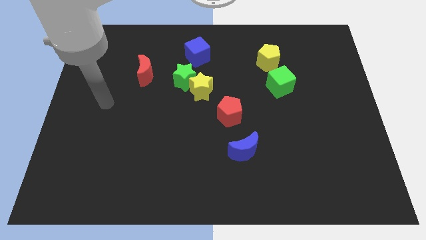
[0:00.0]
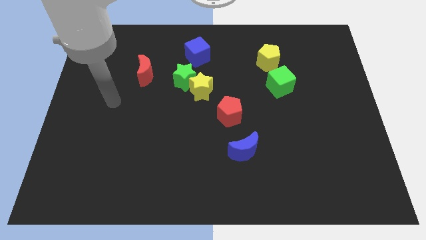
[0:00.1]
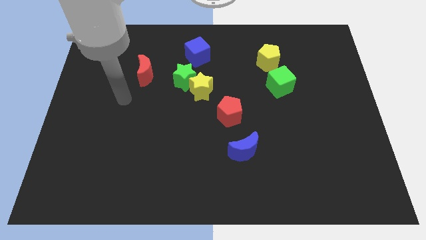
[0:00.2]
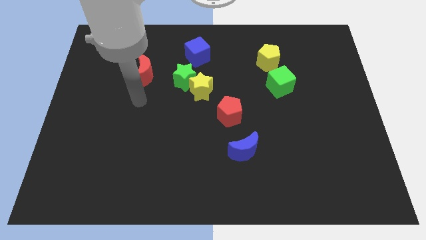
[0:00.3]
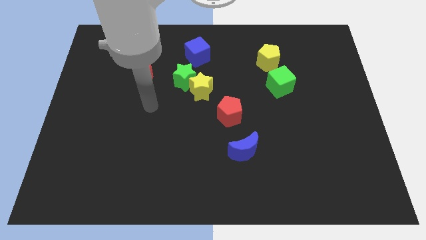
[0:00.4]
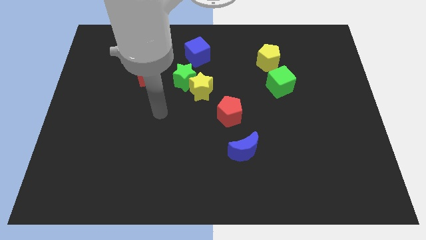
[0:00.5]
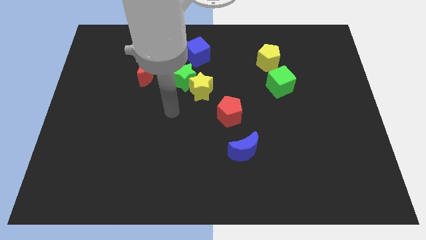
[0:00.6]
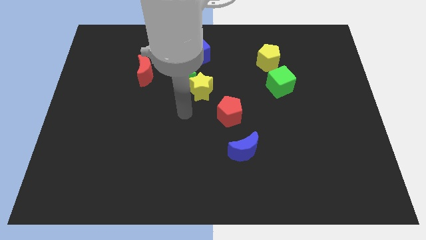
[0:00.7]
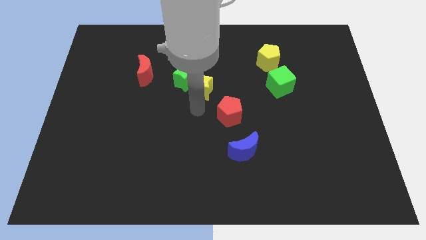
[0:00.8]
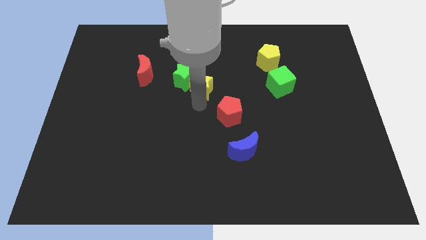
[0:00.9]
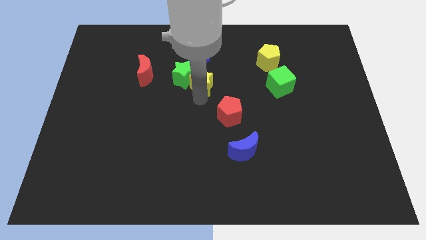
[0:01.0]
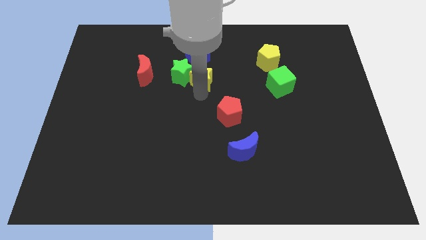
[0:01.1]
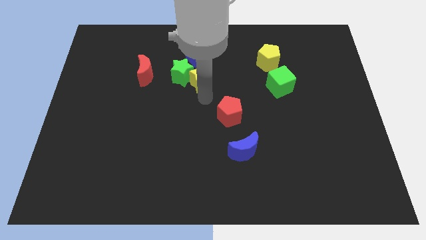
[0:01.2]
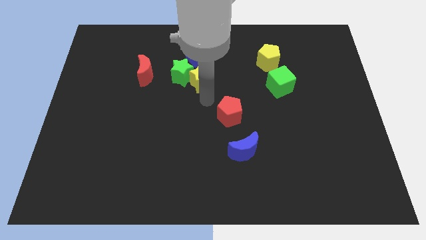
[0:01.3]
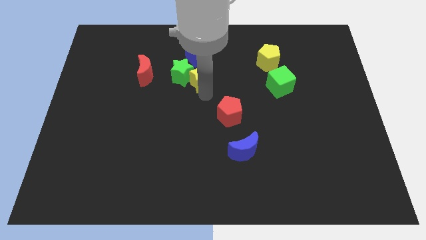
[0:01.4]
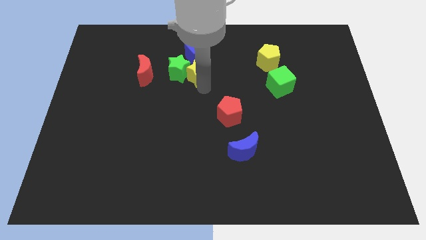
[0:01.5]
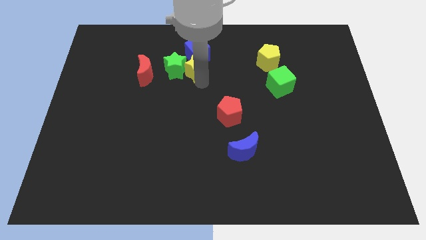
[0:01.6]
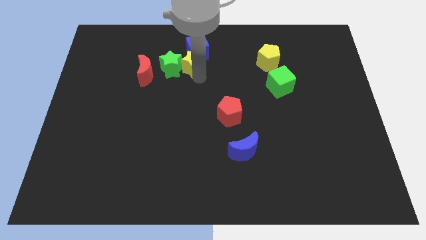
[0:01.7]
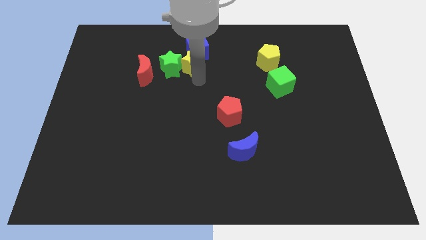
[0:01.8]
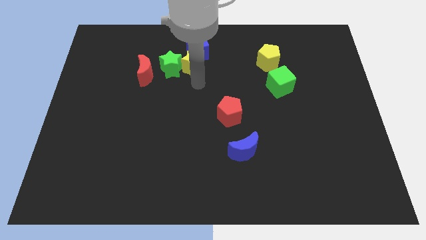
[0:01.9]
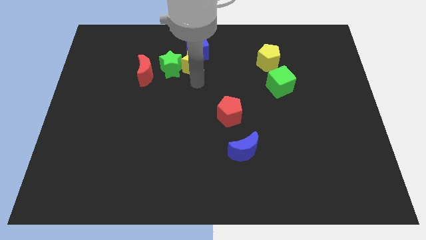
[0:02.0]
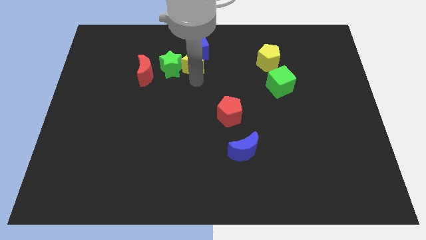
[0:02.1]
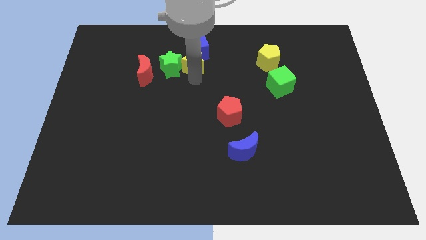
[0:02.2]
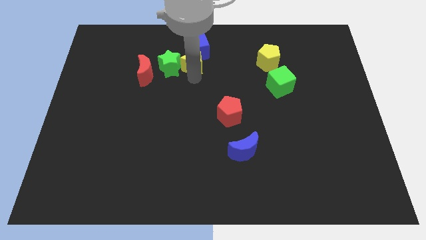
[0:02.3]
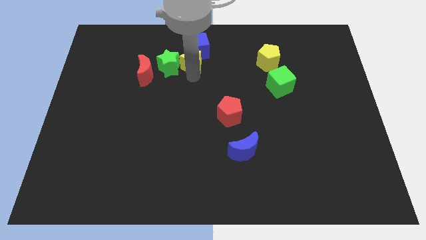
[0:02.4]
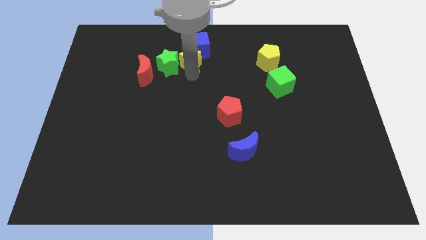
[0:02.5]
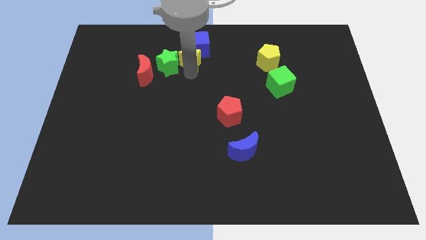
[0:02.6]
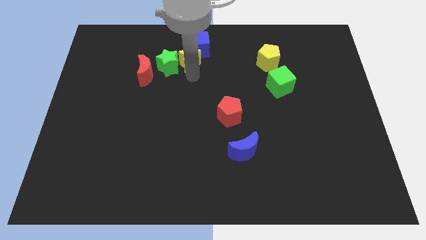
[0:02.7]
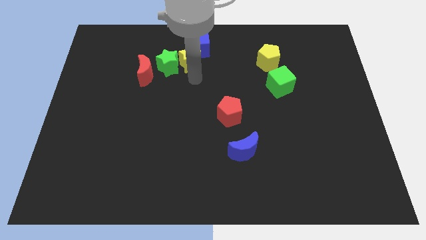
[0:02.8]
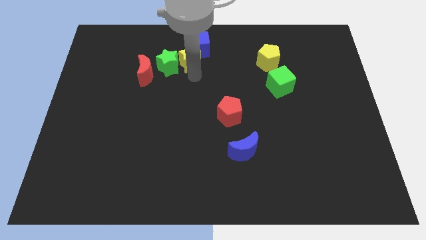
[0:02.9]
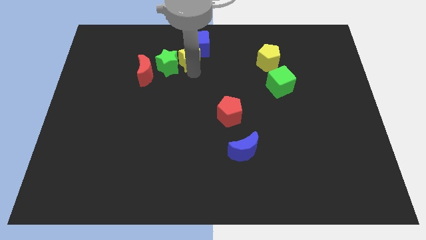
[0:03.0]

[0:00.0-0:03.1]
pull the yellow star apart from the green star and red pentagon

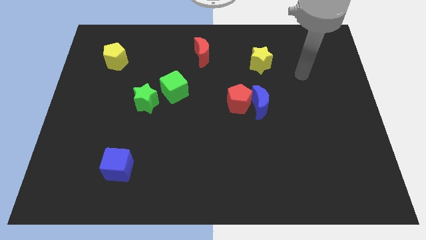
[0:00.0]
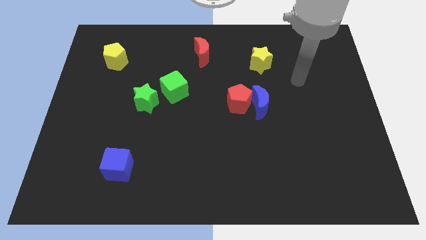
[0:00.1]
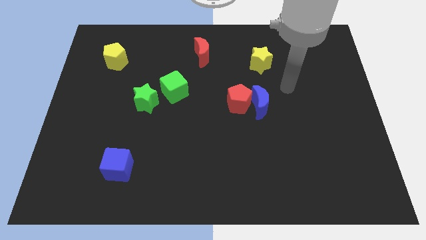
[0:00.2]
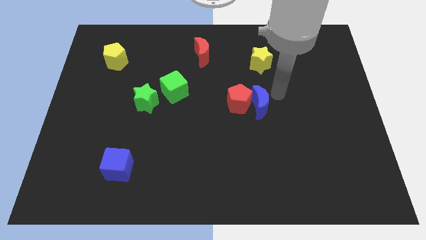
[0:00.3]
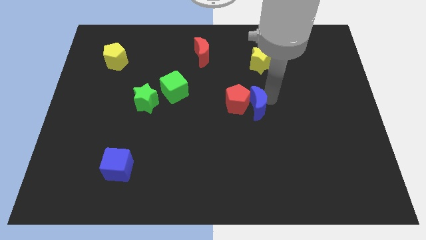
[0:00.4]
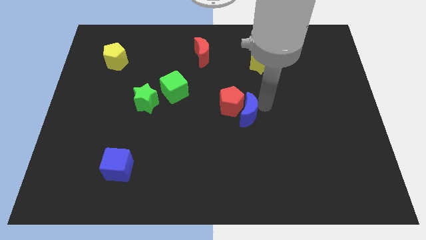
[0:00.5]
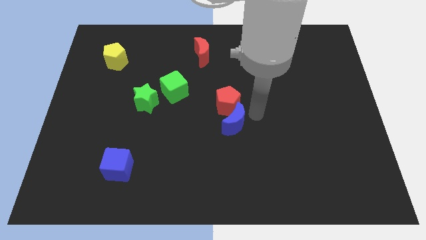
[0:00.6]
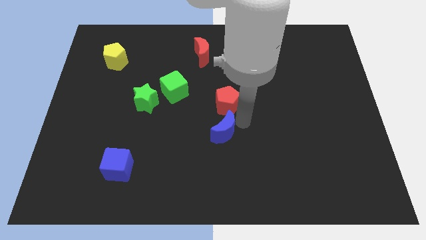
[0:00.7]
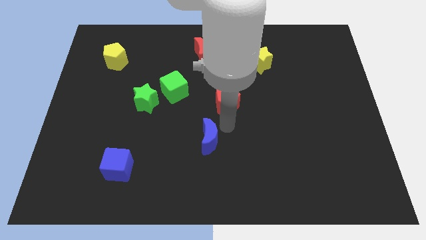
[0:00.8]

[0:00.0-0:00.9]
move the red pentagon away from the blue moon

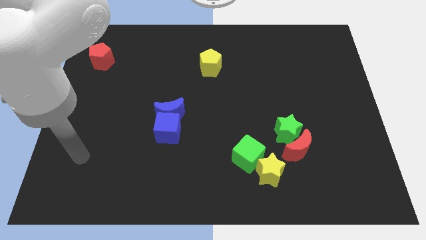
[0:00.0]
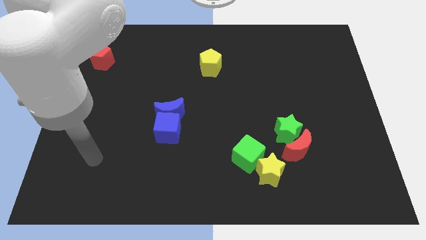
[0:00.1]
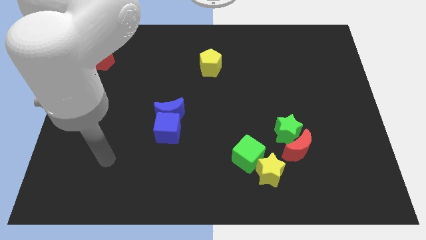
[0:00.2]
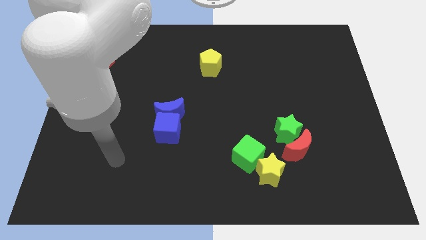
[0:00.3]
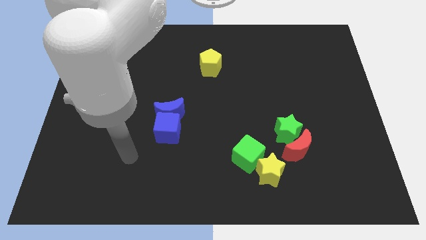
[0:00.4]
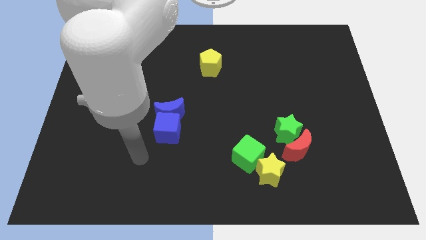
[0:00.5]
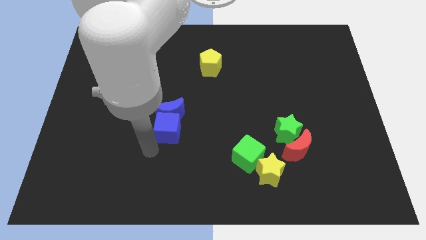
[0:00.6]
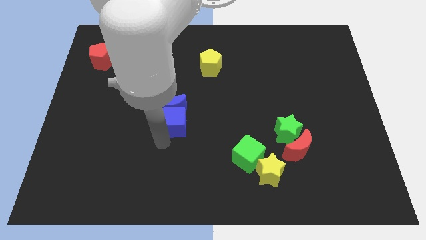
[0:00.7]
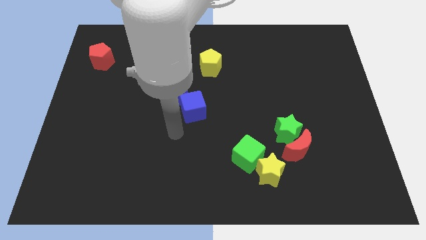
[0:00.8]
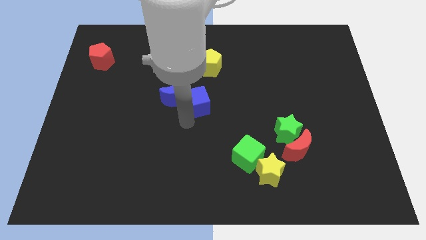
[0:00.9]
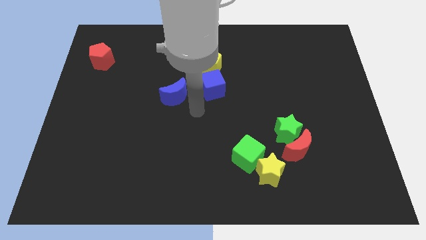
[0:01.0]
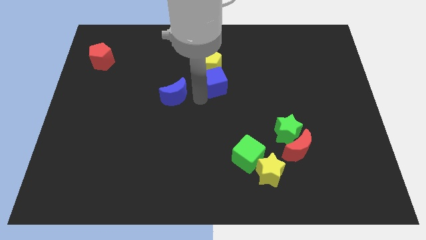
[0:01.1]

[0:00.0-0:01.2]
pull the blue moon apart from the blue cube

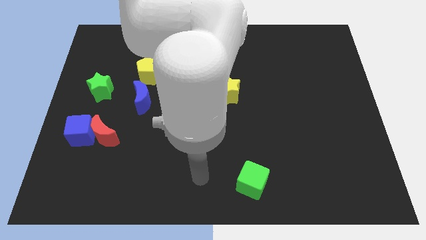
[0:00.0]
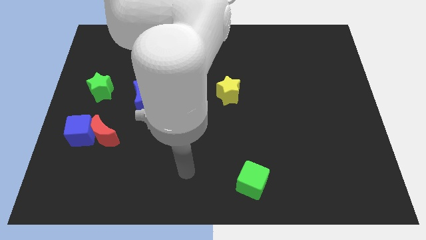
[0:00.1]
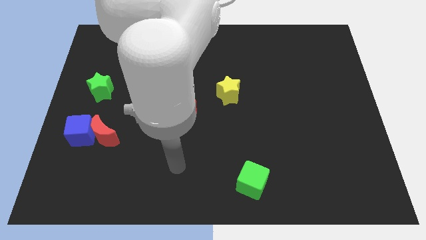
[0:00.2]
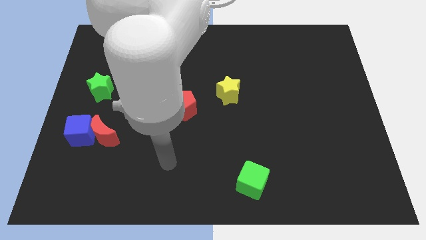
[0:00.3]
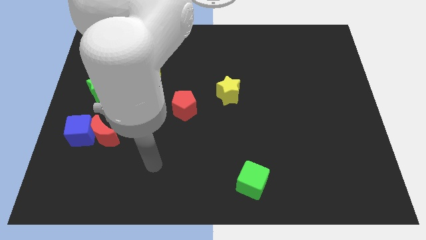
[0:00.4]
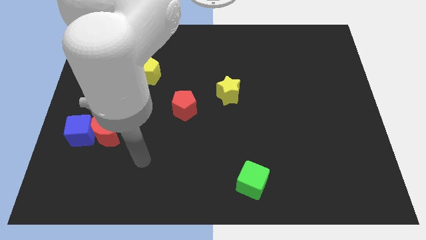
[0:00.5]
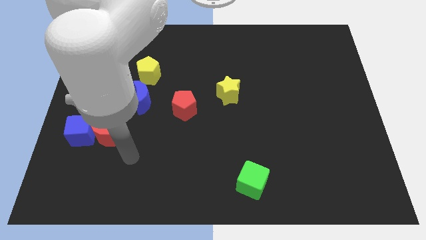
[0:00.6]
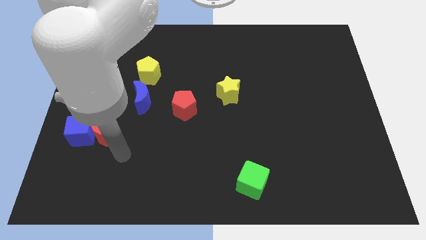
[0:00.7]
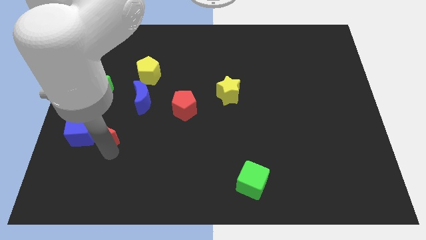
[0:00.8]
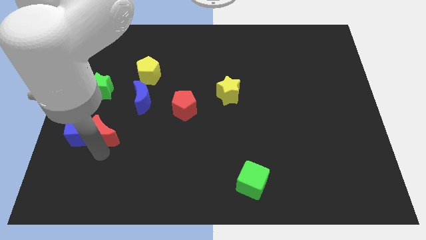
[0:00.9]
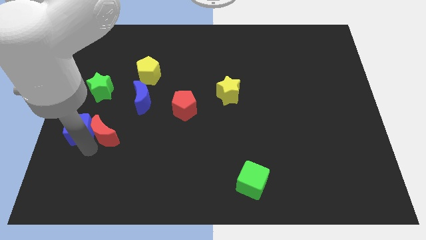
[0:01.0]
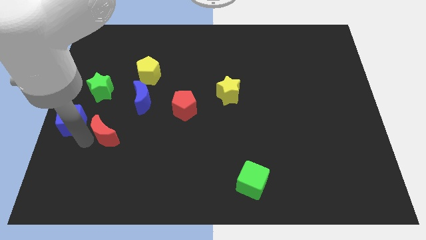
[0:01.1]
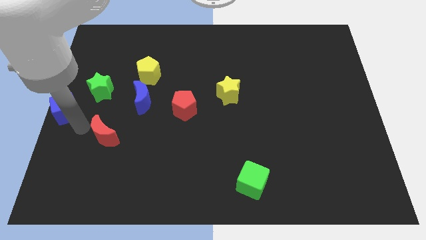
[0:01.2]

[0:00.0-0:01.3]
pull the red moon apart from the blue cube

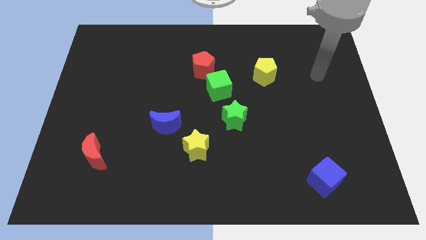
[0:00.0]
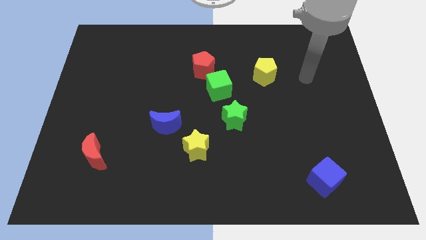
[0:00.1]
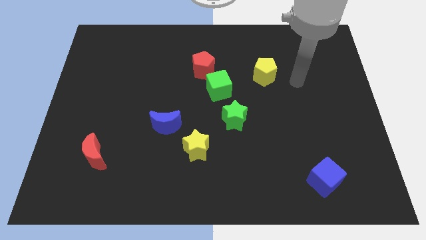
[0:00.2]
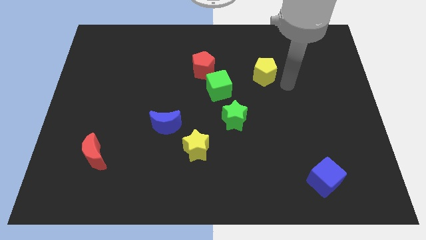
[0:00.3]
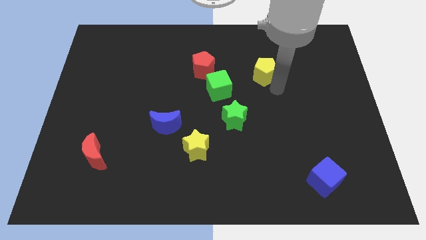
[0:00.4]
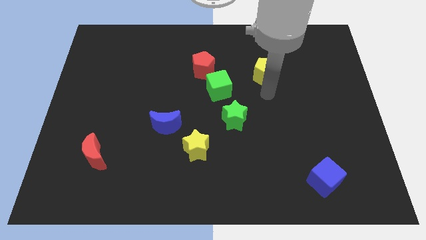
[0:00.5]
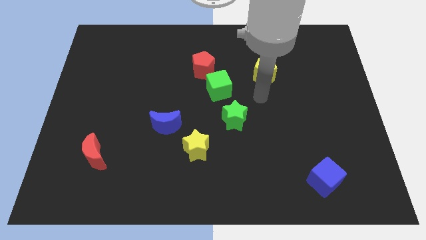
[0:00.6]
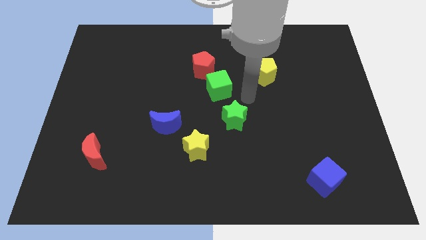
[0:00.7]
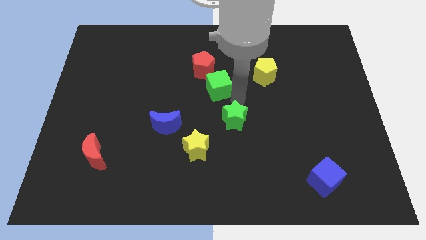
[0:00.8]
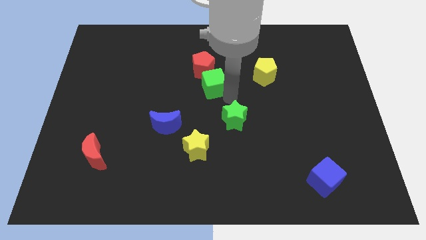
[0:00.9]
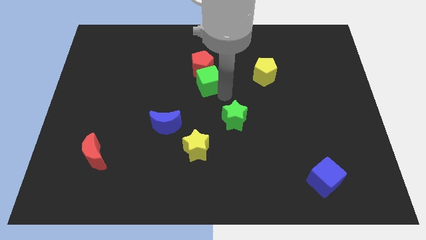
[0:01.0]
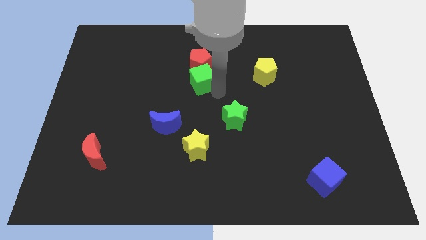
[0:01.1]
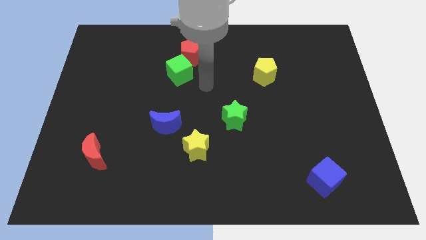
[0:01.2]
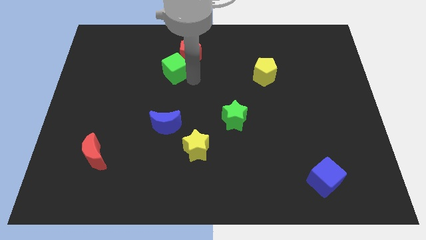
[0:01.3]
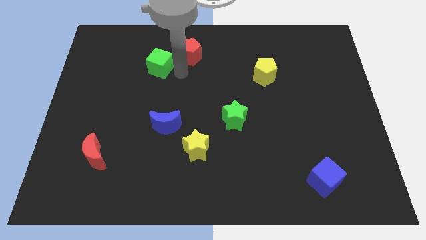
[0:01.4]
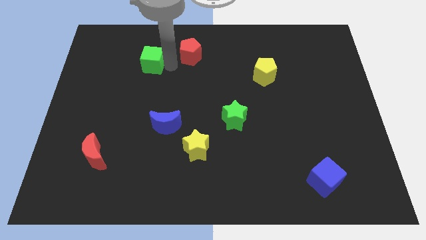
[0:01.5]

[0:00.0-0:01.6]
pull the red pentagon apart from the green cube

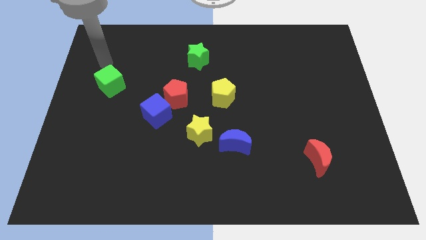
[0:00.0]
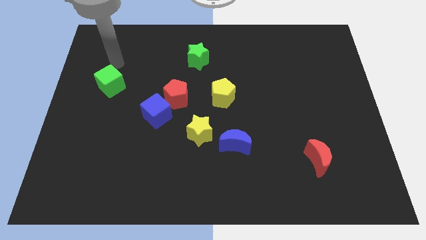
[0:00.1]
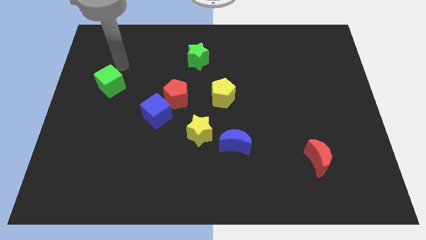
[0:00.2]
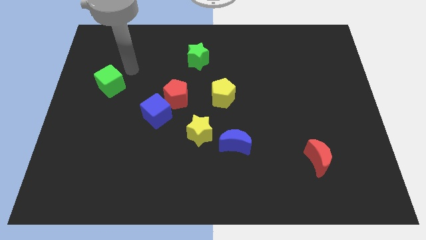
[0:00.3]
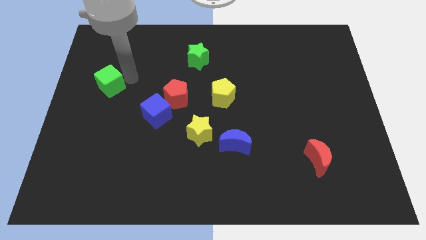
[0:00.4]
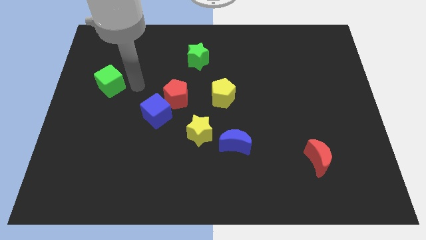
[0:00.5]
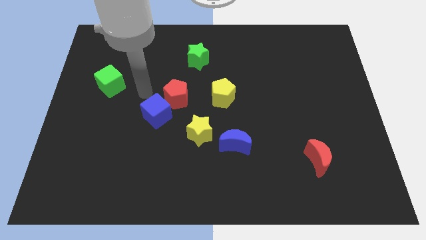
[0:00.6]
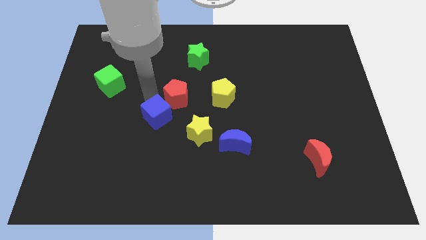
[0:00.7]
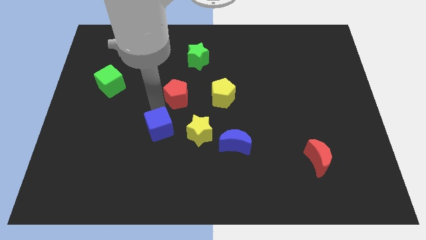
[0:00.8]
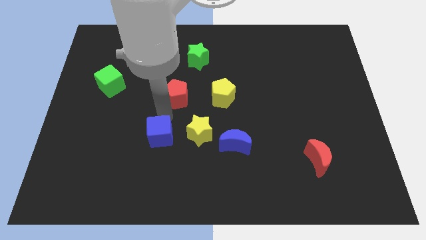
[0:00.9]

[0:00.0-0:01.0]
move the red pentagon away from the blue cube

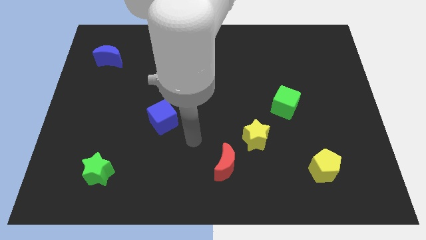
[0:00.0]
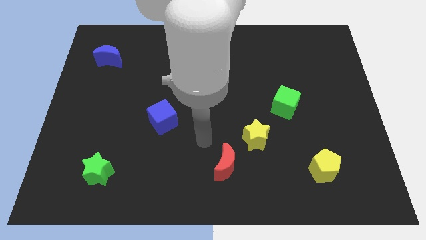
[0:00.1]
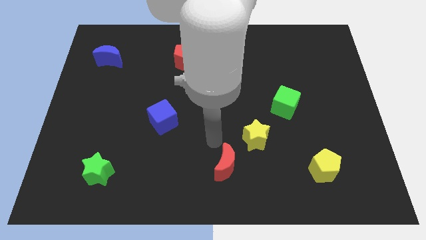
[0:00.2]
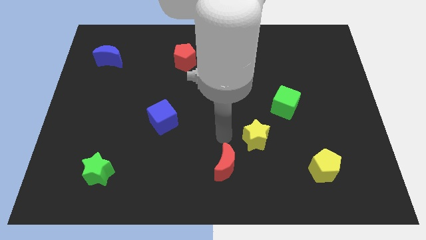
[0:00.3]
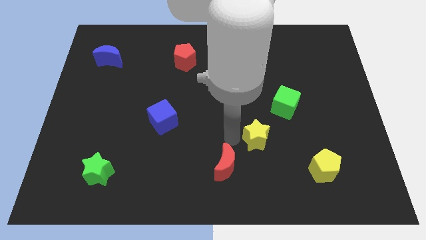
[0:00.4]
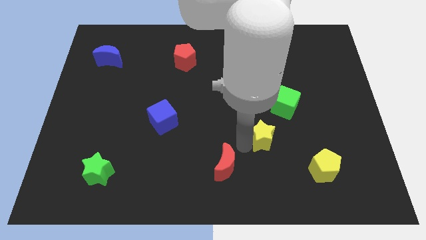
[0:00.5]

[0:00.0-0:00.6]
pull the red moon apart from the yellow star
